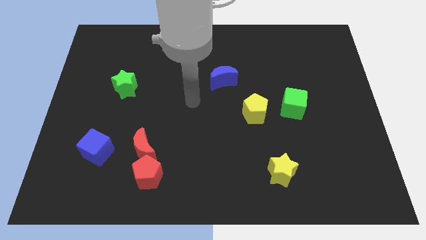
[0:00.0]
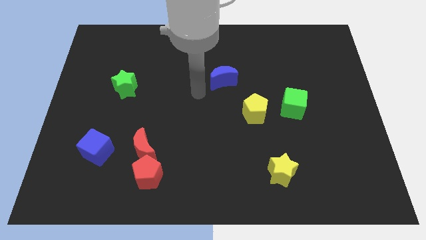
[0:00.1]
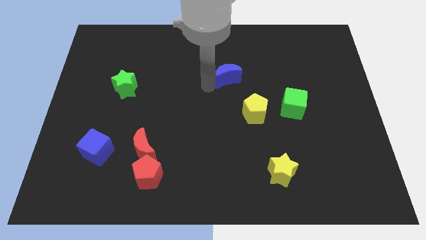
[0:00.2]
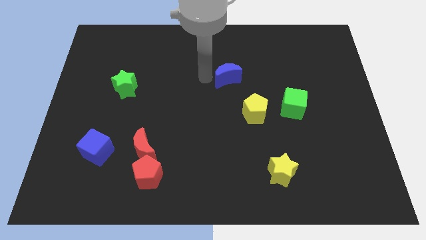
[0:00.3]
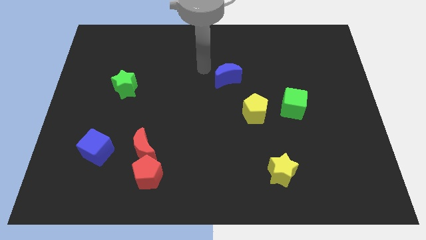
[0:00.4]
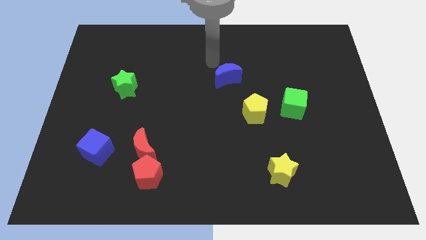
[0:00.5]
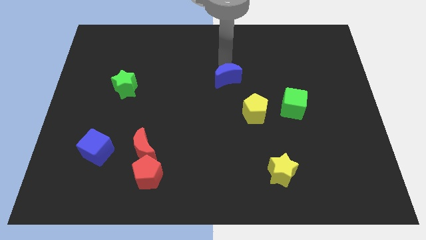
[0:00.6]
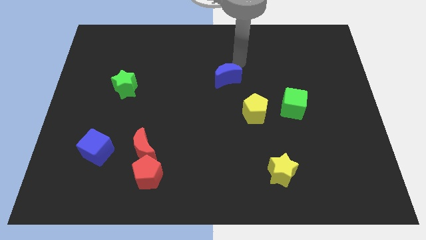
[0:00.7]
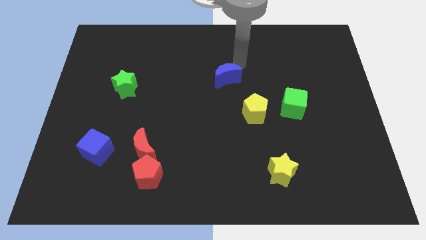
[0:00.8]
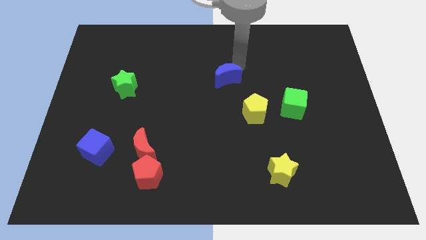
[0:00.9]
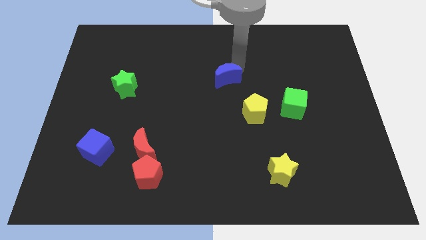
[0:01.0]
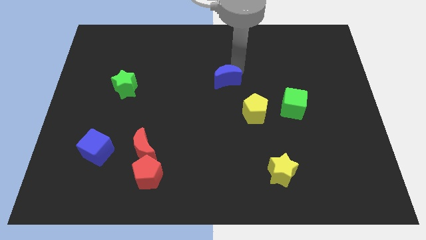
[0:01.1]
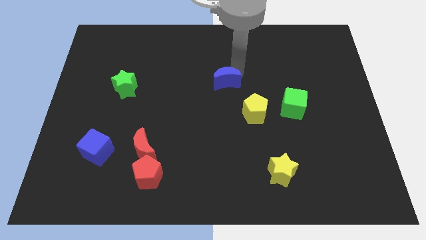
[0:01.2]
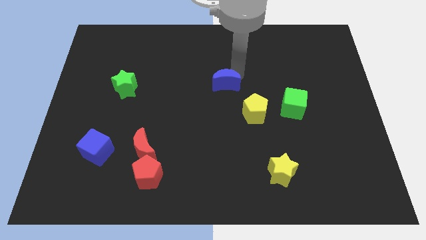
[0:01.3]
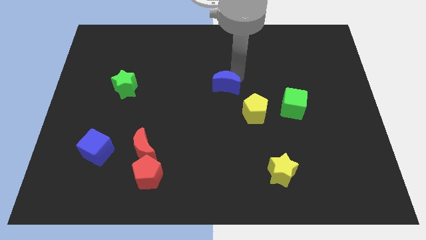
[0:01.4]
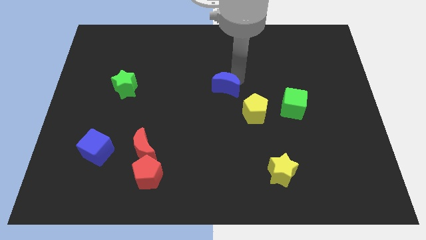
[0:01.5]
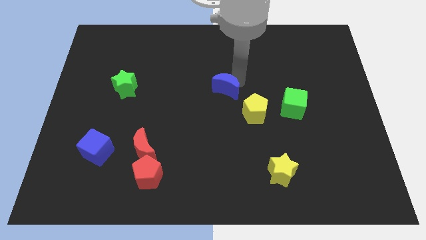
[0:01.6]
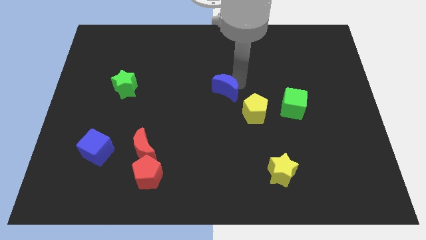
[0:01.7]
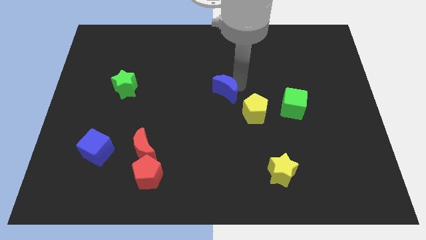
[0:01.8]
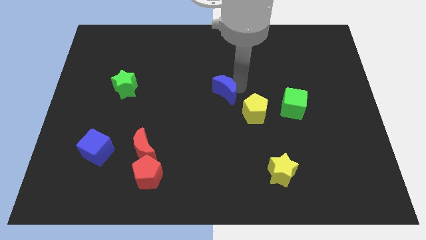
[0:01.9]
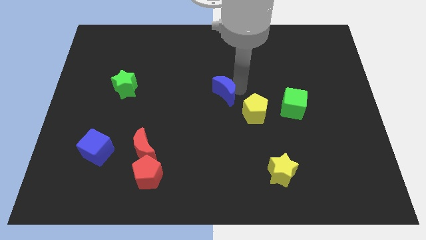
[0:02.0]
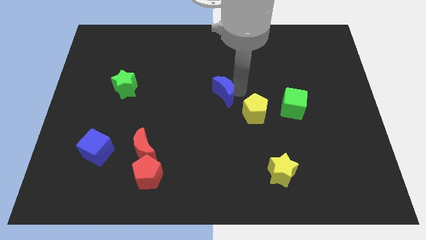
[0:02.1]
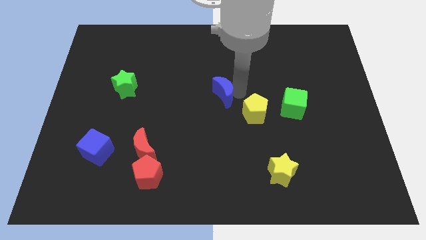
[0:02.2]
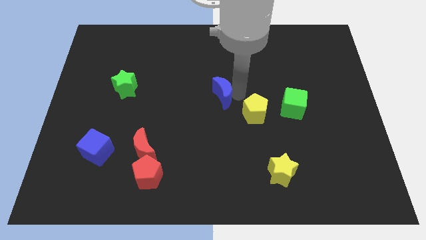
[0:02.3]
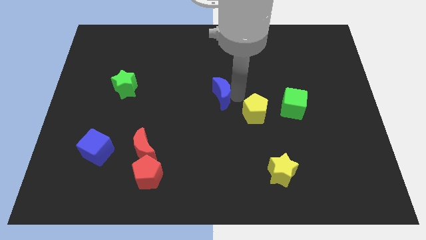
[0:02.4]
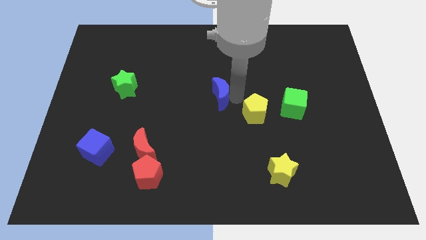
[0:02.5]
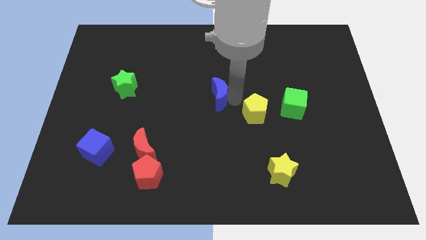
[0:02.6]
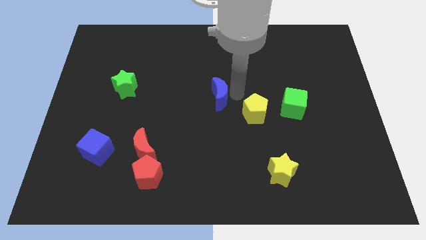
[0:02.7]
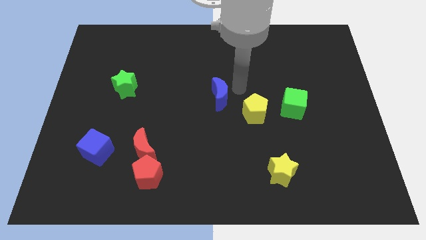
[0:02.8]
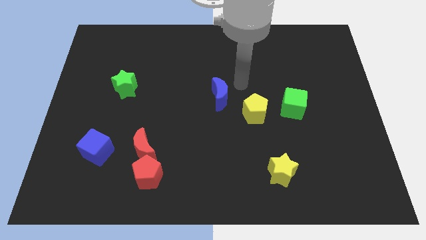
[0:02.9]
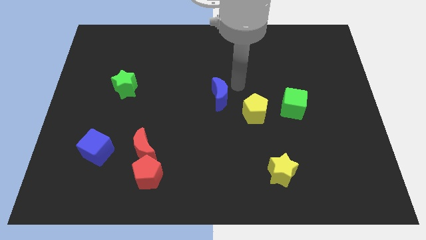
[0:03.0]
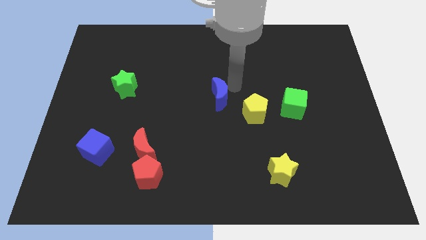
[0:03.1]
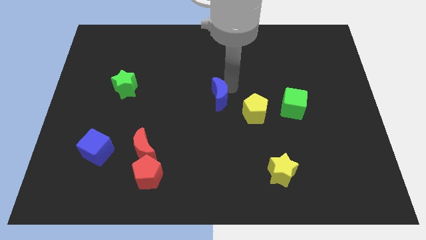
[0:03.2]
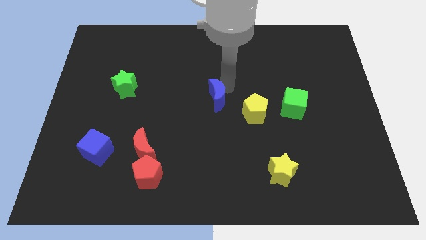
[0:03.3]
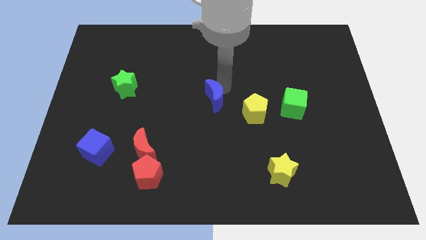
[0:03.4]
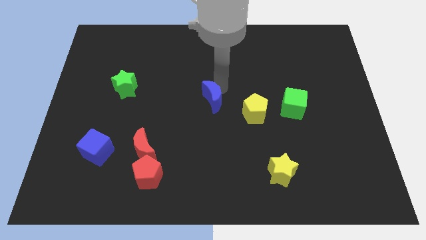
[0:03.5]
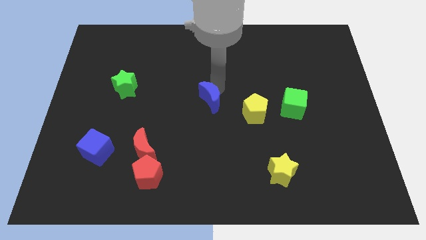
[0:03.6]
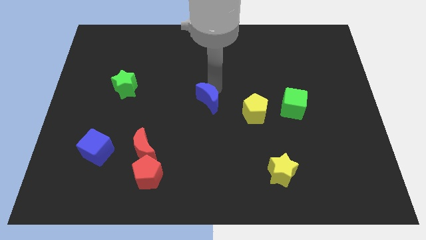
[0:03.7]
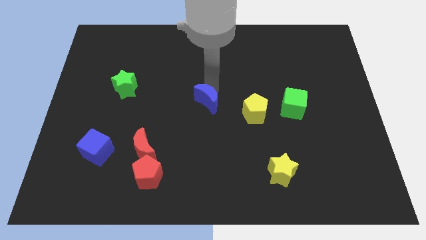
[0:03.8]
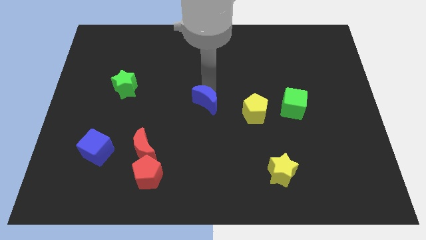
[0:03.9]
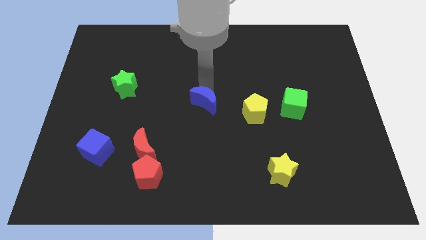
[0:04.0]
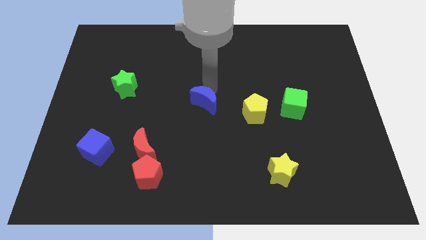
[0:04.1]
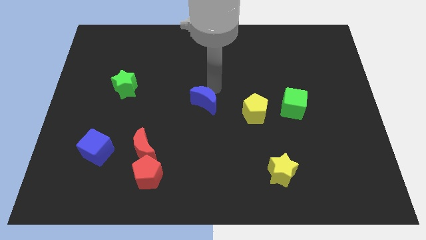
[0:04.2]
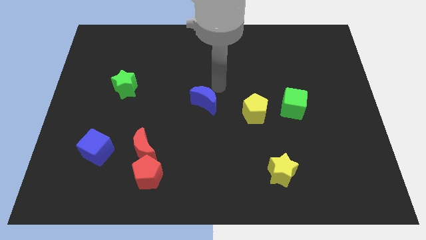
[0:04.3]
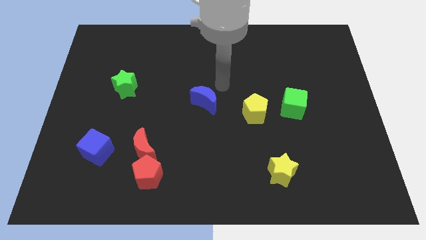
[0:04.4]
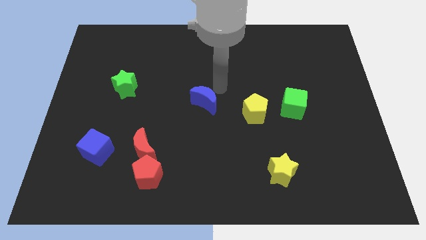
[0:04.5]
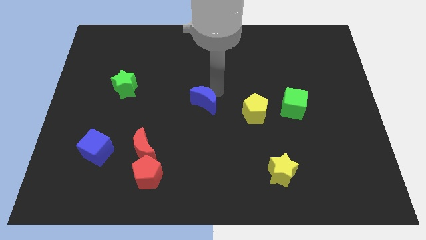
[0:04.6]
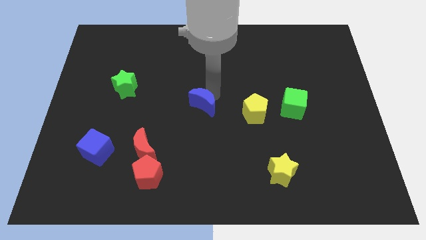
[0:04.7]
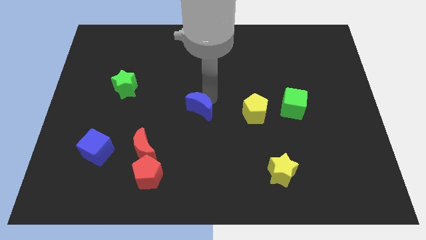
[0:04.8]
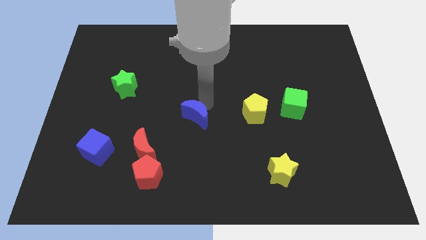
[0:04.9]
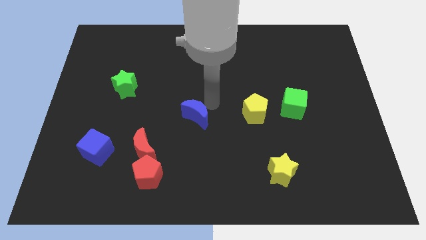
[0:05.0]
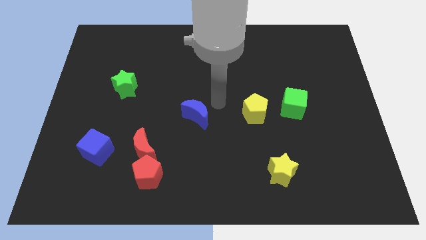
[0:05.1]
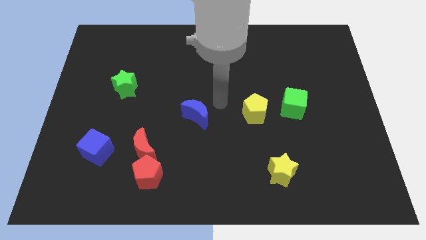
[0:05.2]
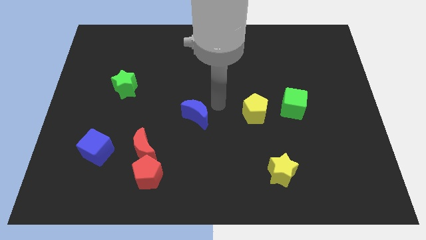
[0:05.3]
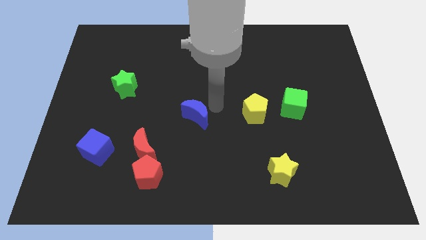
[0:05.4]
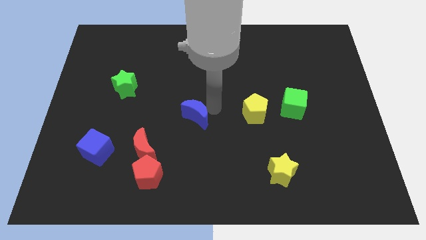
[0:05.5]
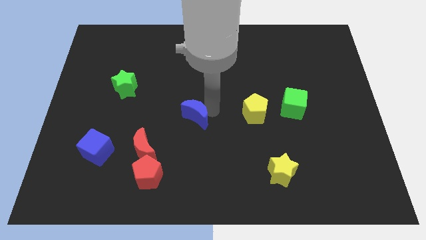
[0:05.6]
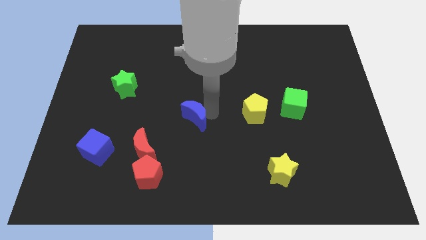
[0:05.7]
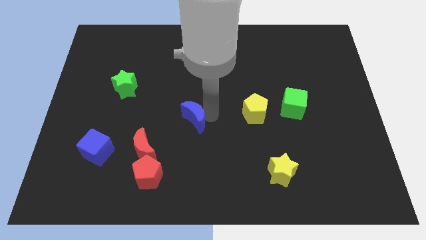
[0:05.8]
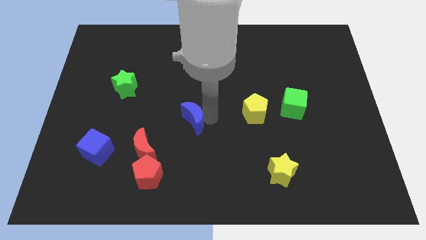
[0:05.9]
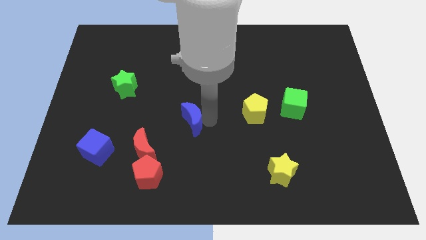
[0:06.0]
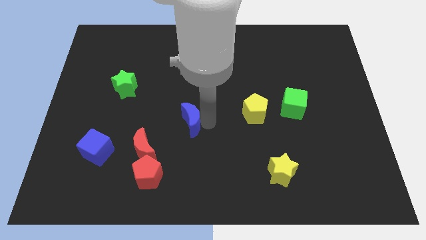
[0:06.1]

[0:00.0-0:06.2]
move the blue moon diagonally up and to the right of the red moon

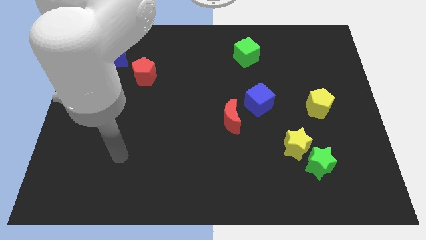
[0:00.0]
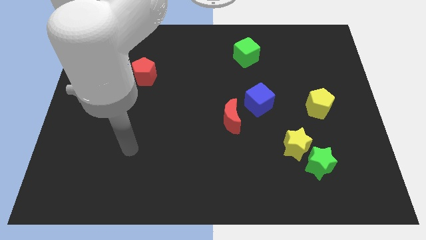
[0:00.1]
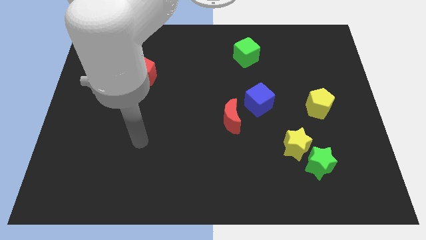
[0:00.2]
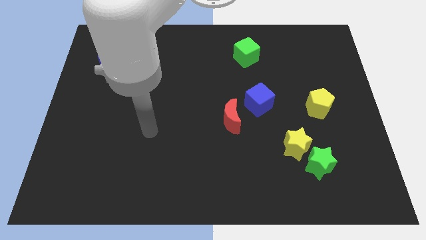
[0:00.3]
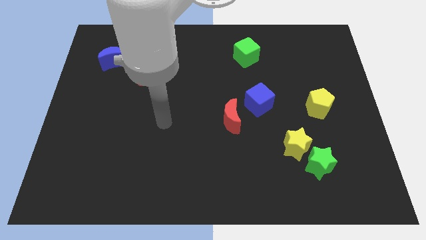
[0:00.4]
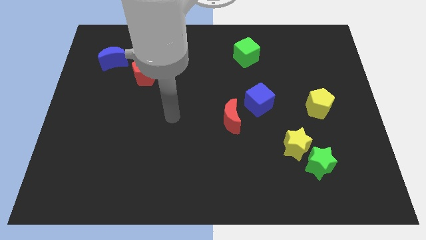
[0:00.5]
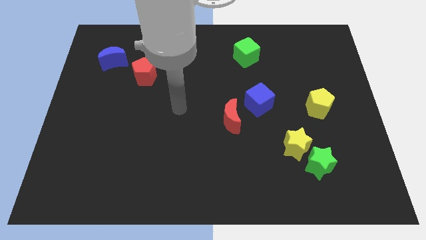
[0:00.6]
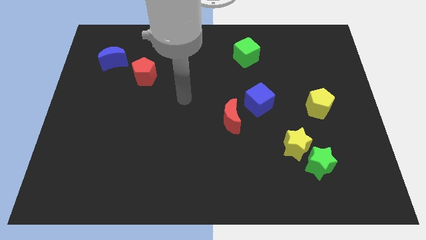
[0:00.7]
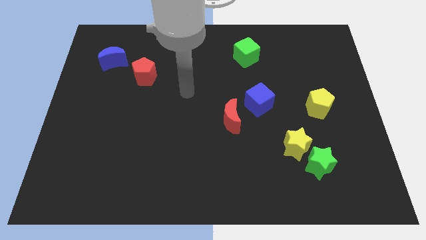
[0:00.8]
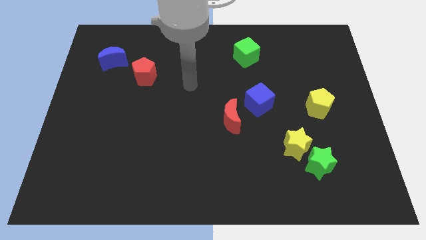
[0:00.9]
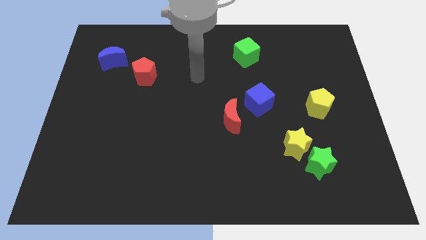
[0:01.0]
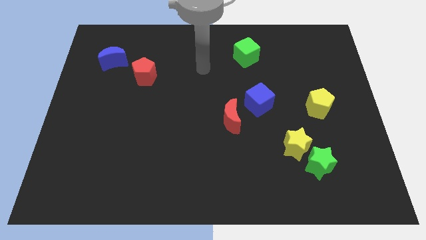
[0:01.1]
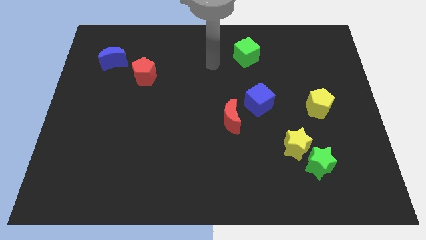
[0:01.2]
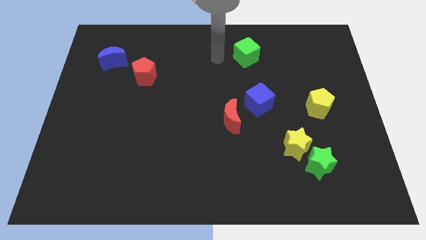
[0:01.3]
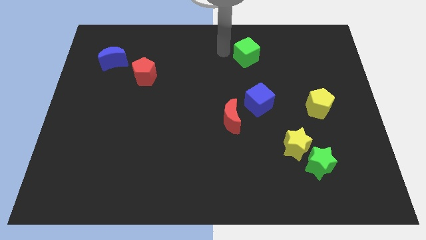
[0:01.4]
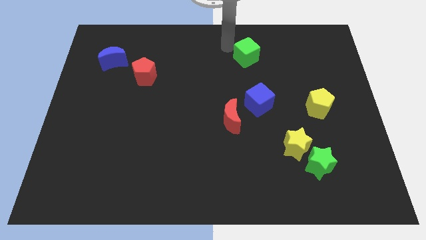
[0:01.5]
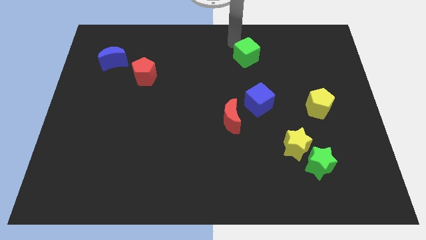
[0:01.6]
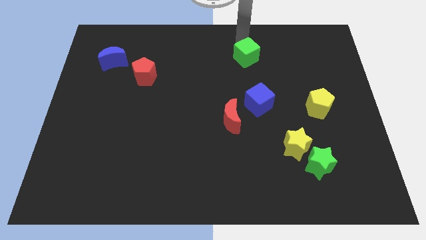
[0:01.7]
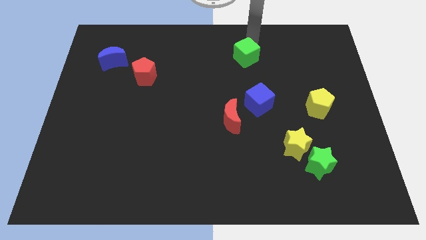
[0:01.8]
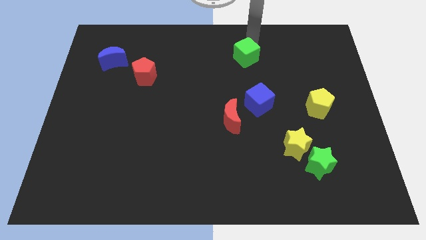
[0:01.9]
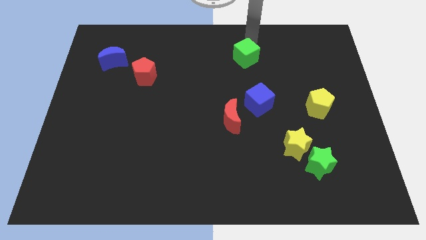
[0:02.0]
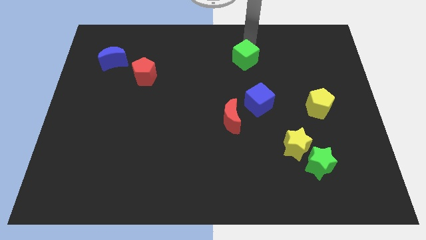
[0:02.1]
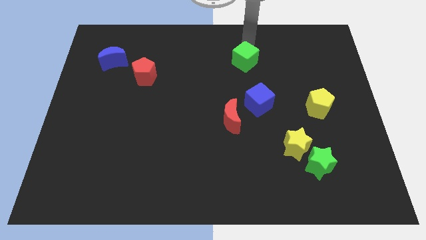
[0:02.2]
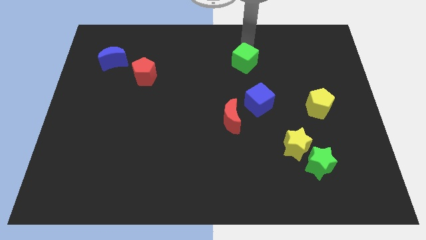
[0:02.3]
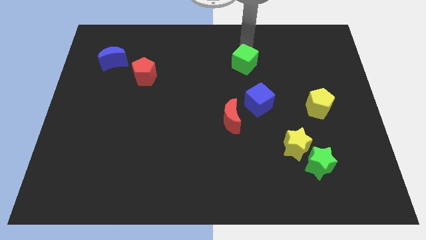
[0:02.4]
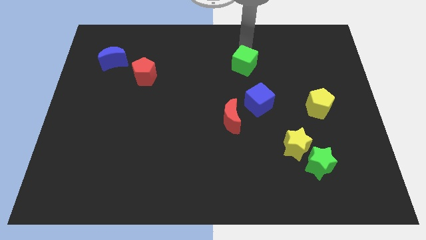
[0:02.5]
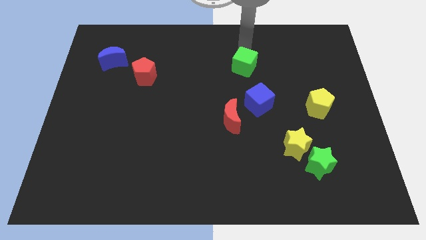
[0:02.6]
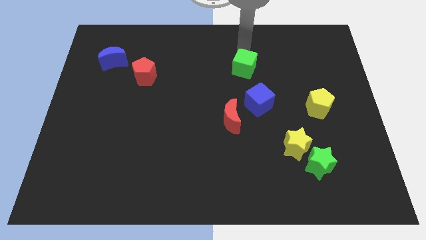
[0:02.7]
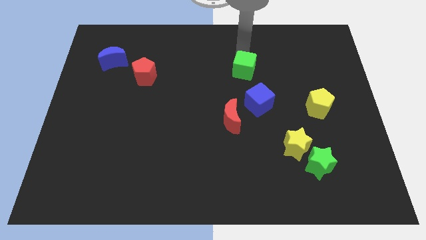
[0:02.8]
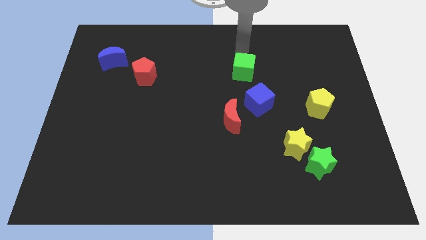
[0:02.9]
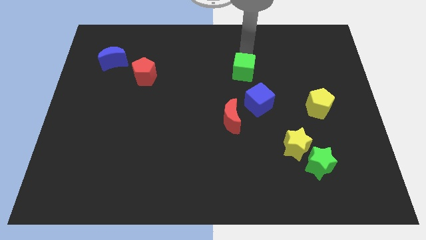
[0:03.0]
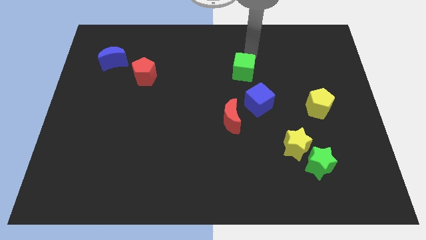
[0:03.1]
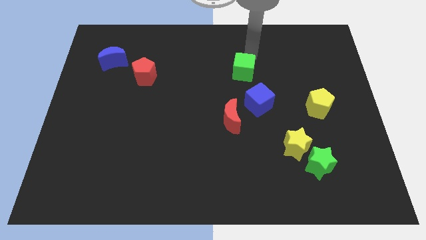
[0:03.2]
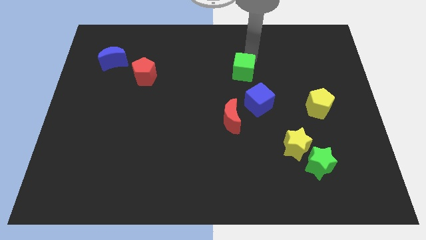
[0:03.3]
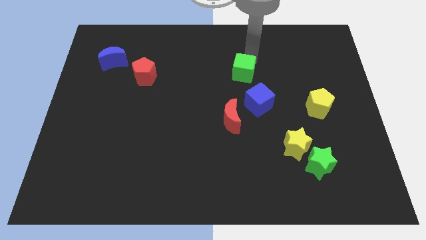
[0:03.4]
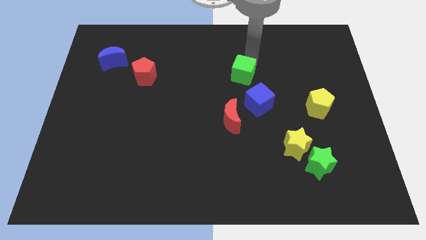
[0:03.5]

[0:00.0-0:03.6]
slide the green cube to the top left side of the blue cube
